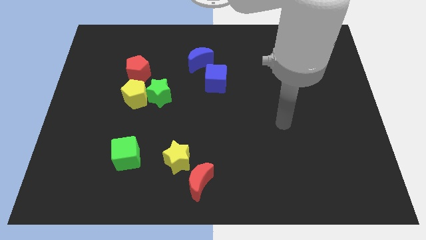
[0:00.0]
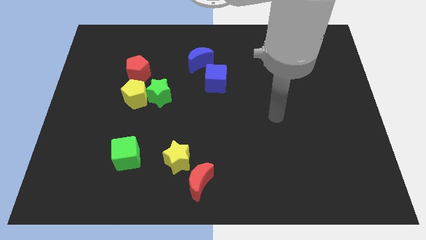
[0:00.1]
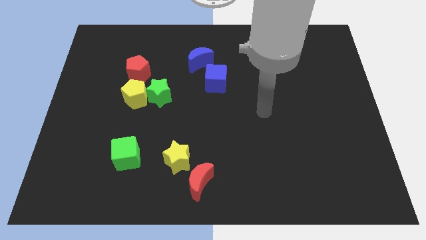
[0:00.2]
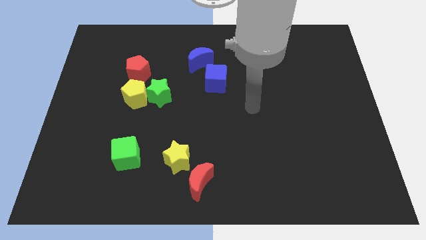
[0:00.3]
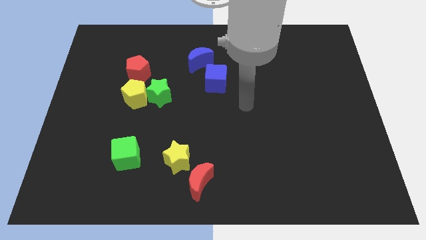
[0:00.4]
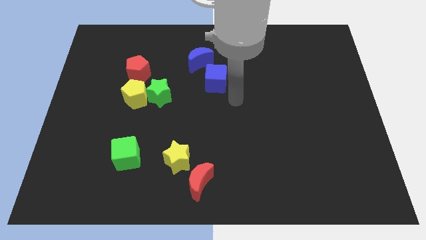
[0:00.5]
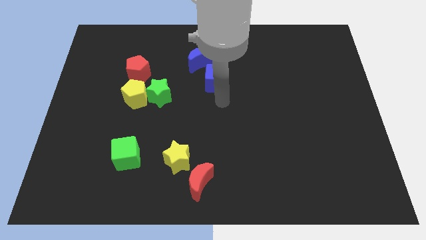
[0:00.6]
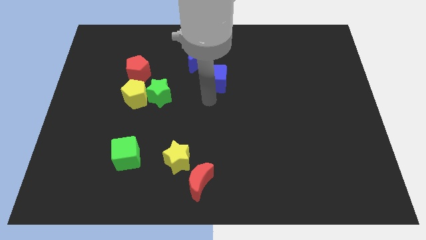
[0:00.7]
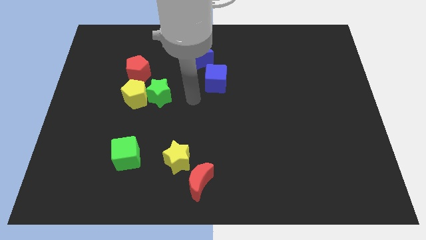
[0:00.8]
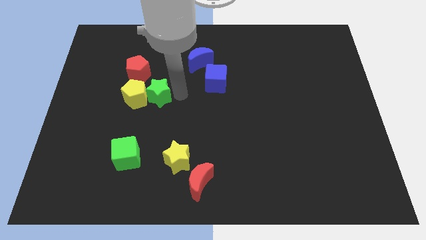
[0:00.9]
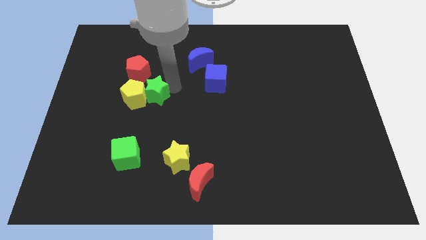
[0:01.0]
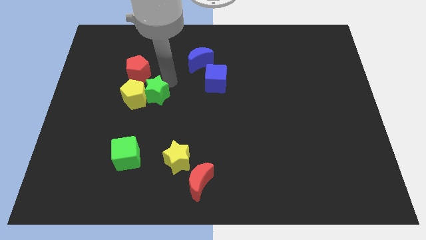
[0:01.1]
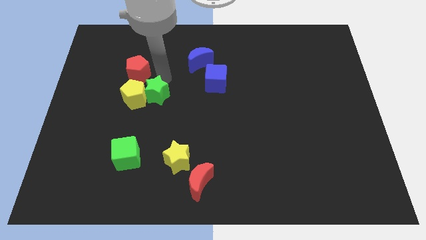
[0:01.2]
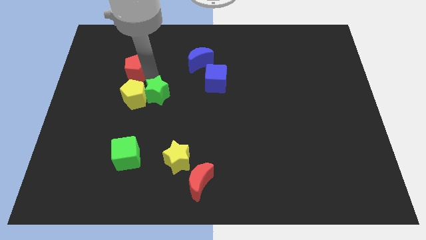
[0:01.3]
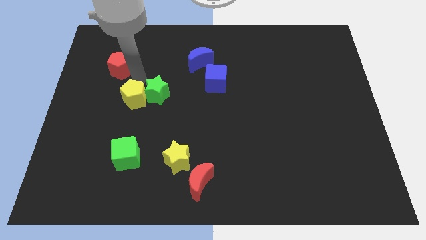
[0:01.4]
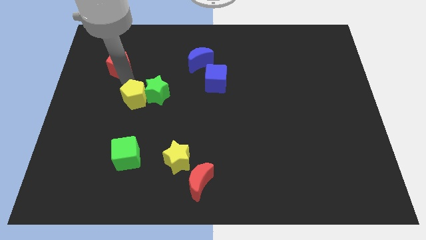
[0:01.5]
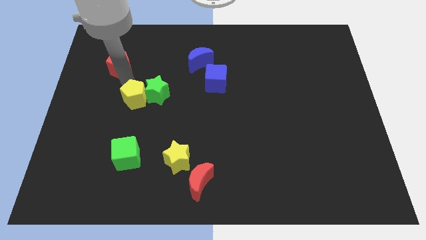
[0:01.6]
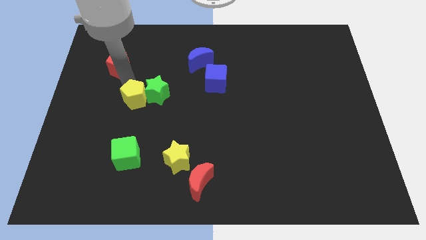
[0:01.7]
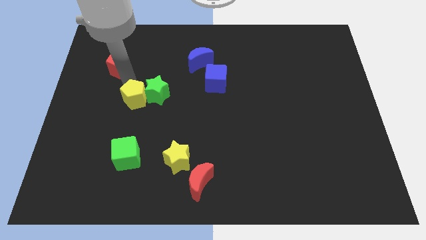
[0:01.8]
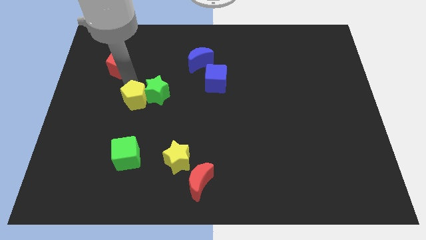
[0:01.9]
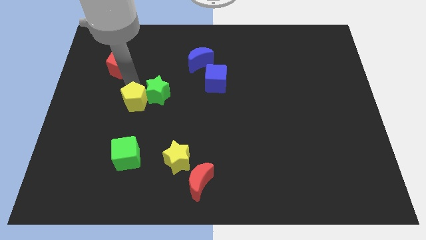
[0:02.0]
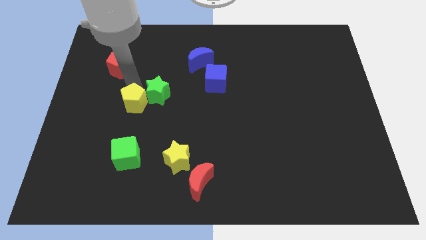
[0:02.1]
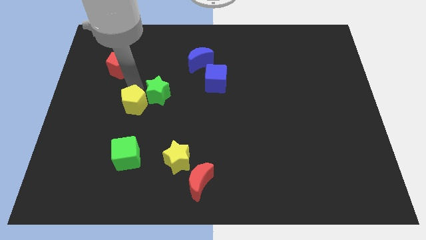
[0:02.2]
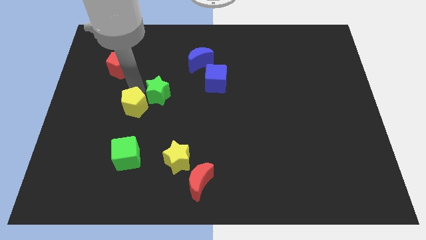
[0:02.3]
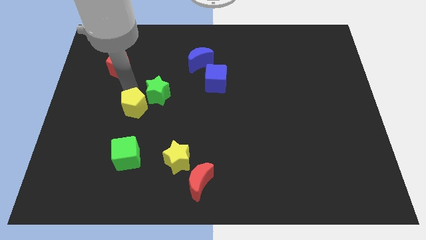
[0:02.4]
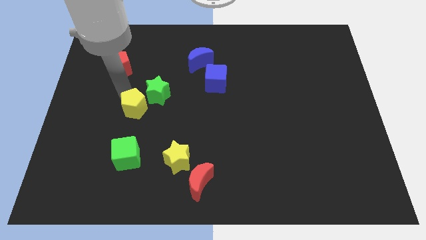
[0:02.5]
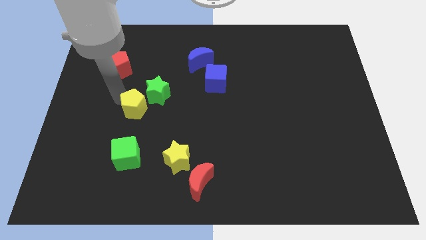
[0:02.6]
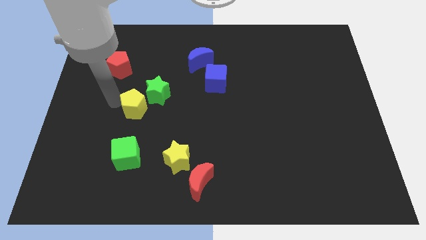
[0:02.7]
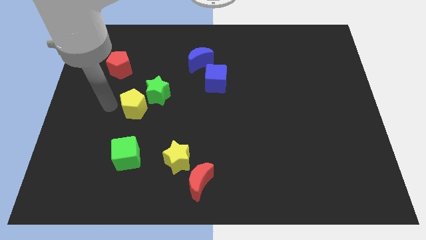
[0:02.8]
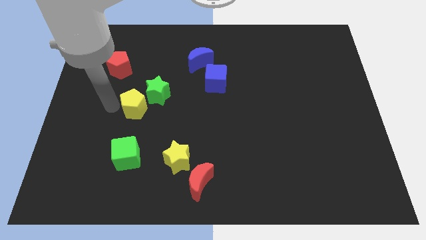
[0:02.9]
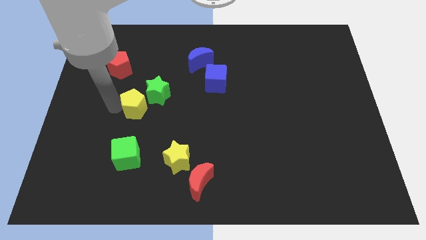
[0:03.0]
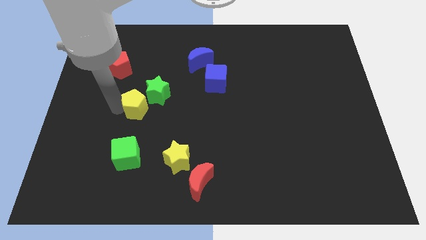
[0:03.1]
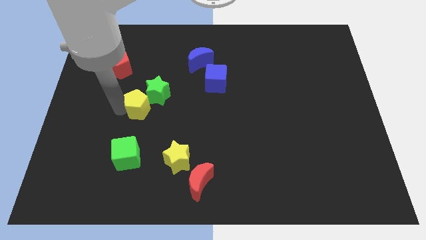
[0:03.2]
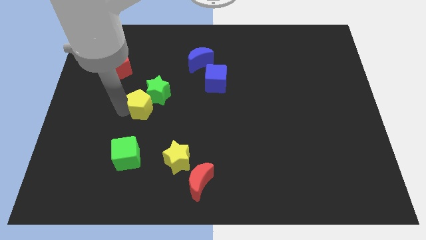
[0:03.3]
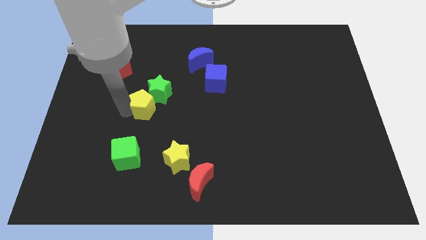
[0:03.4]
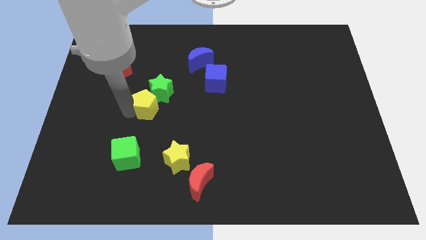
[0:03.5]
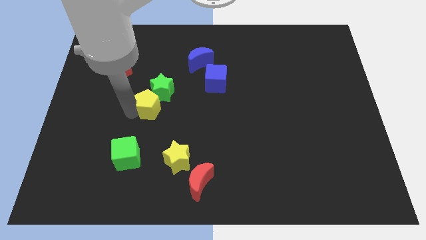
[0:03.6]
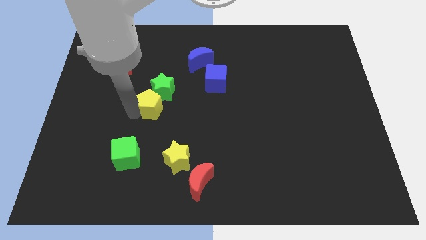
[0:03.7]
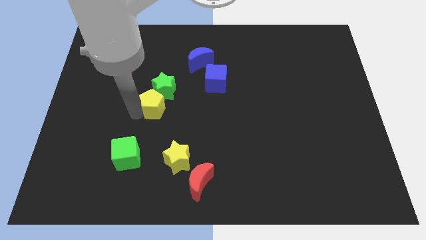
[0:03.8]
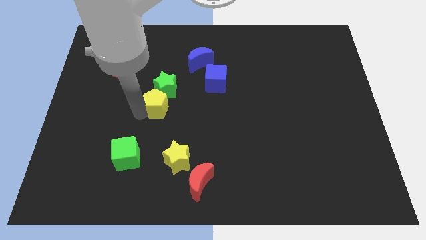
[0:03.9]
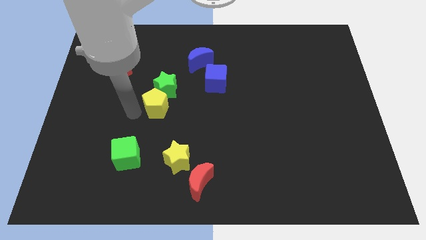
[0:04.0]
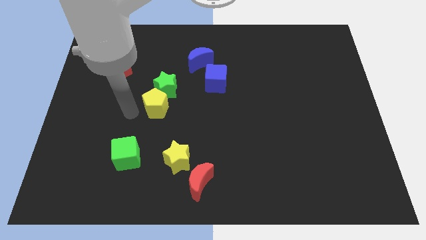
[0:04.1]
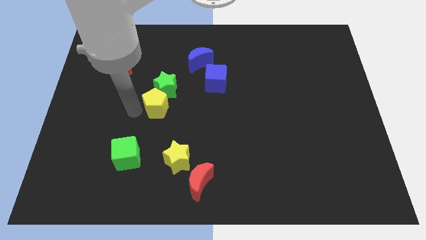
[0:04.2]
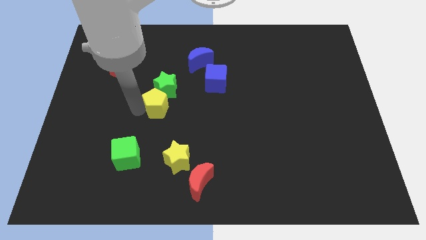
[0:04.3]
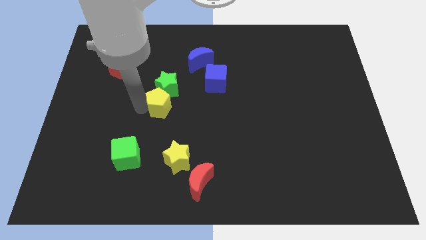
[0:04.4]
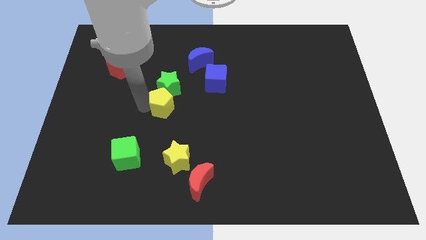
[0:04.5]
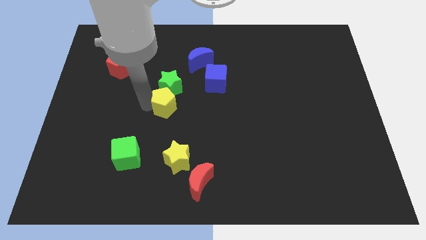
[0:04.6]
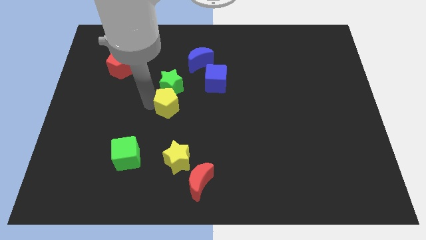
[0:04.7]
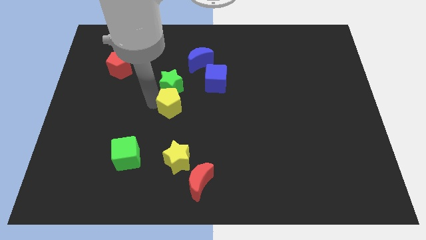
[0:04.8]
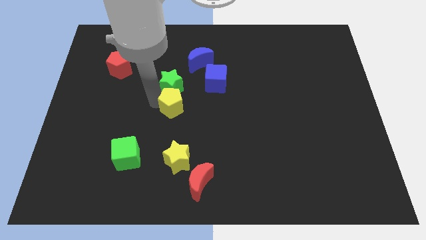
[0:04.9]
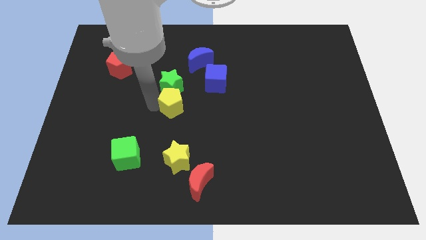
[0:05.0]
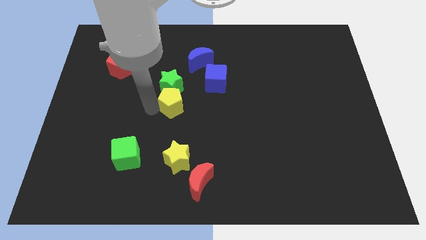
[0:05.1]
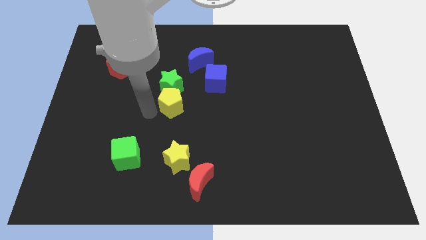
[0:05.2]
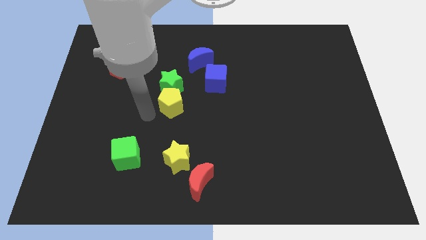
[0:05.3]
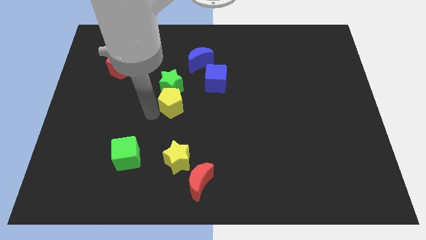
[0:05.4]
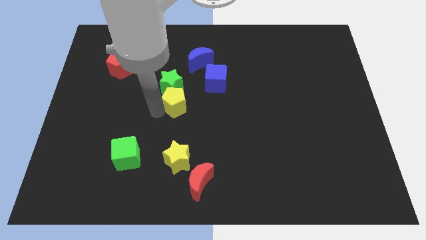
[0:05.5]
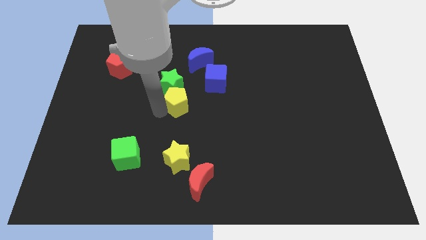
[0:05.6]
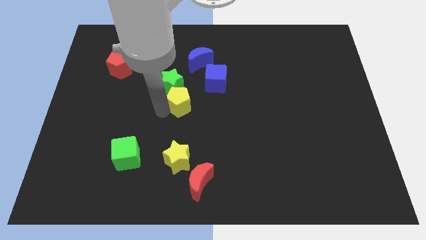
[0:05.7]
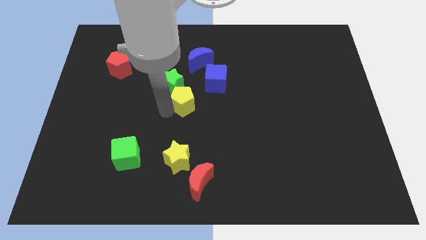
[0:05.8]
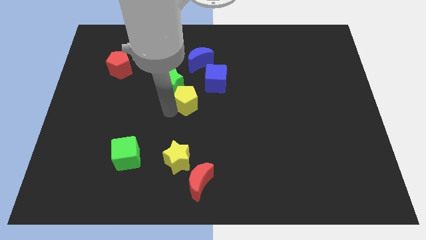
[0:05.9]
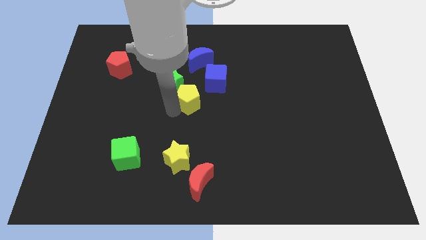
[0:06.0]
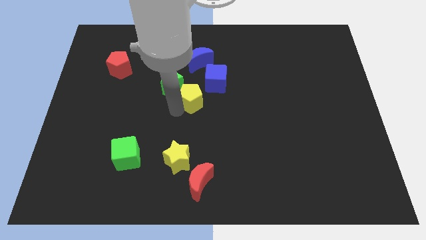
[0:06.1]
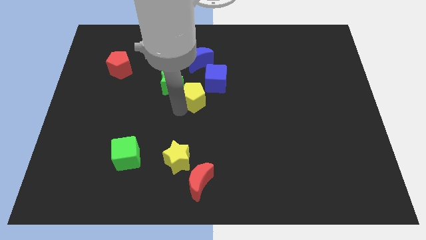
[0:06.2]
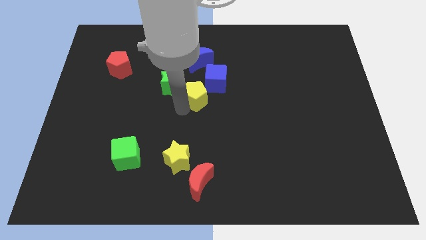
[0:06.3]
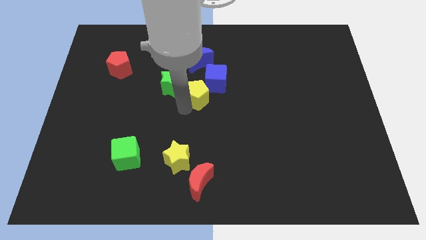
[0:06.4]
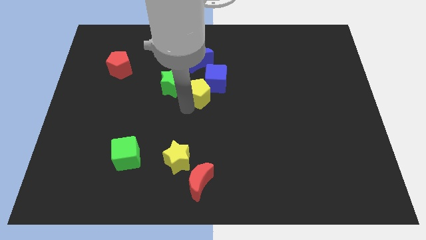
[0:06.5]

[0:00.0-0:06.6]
put the yellow pentagon close to the blue cube

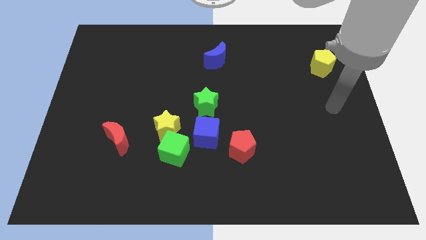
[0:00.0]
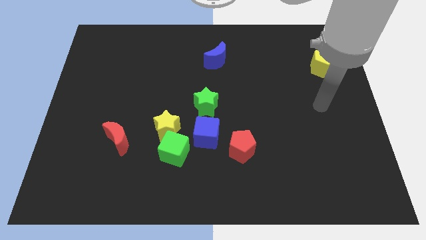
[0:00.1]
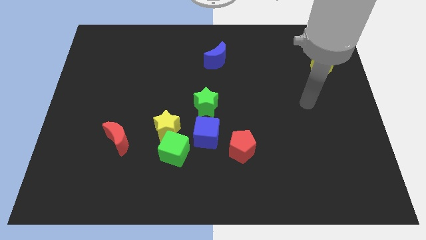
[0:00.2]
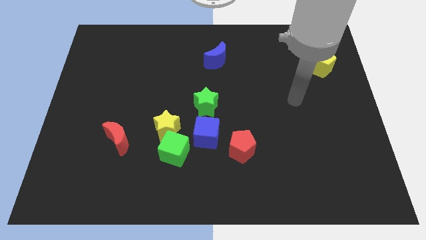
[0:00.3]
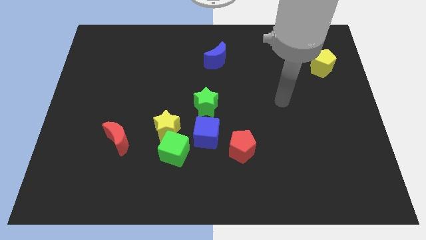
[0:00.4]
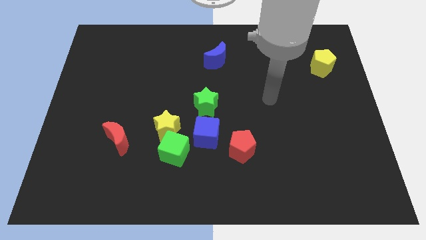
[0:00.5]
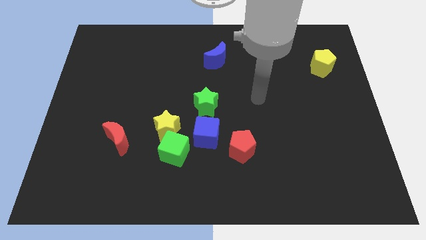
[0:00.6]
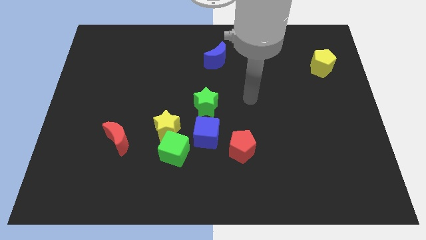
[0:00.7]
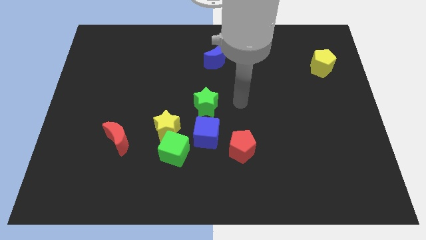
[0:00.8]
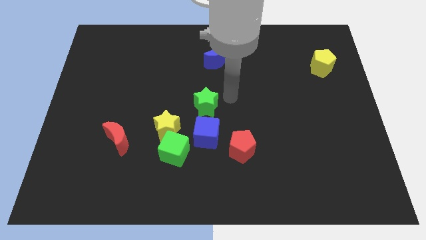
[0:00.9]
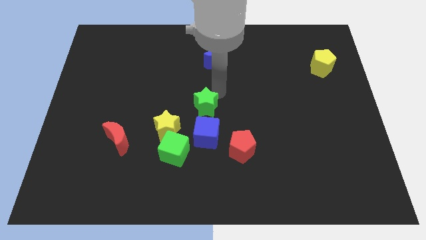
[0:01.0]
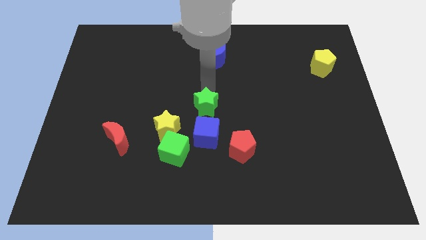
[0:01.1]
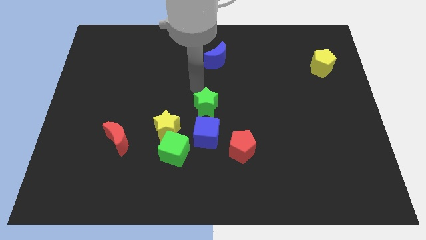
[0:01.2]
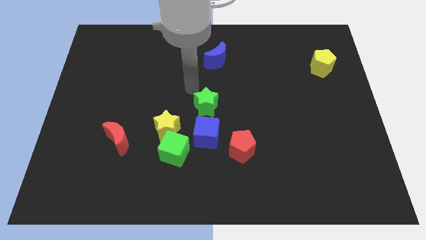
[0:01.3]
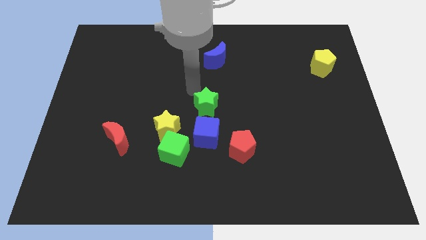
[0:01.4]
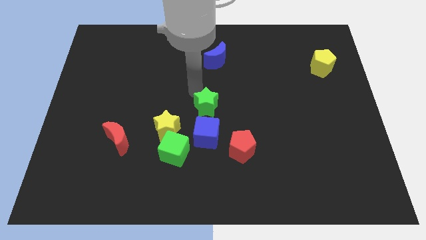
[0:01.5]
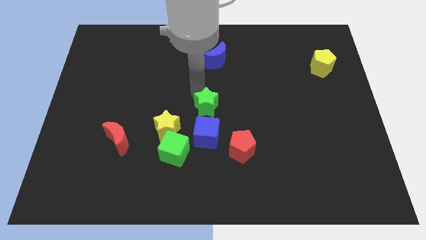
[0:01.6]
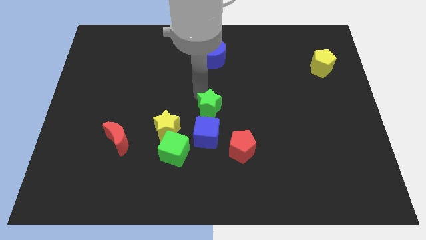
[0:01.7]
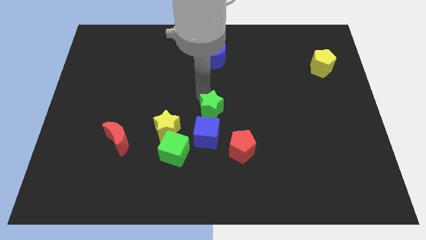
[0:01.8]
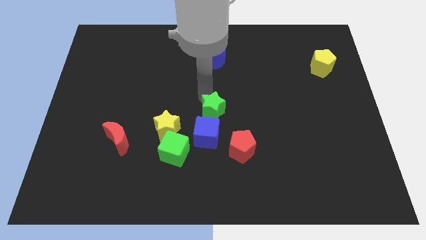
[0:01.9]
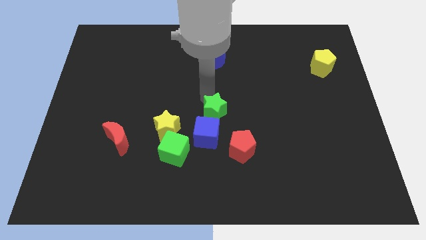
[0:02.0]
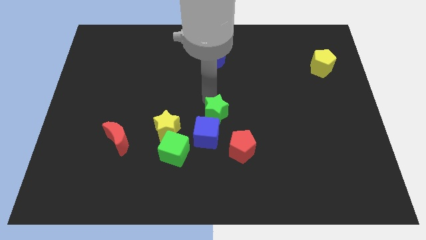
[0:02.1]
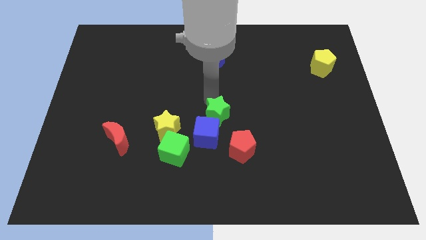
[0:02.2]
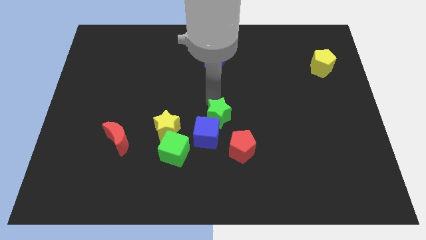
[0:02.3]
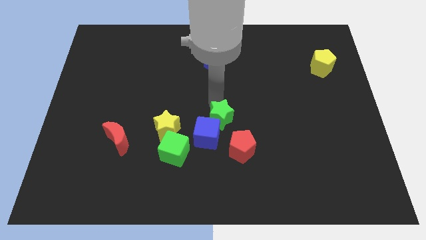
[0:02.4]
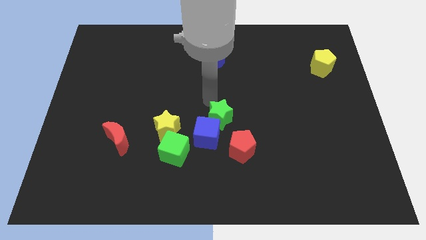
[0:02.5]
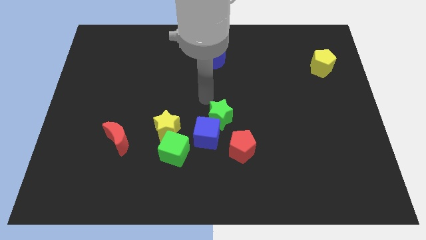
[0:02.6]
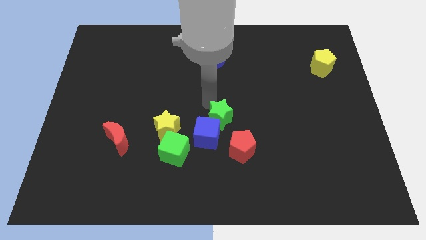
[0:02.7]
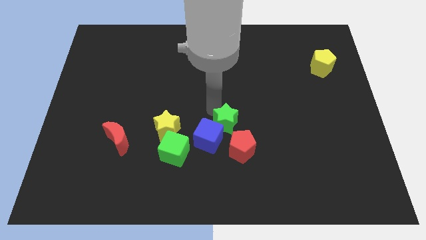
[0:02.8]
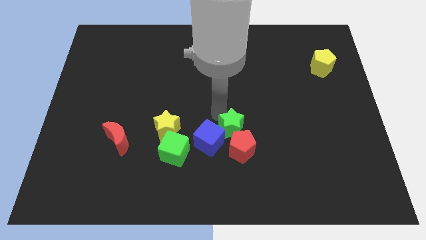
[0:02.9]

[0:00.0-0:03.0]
put the green star towards the red pentagon
